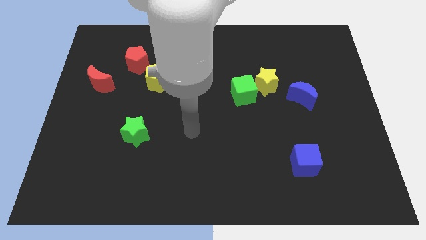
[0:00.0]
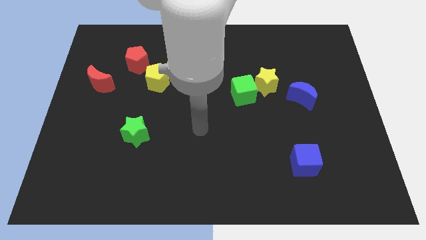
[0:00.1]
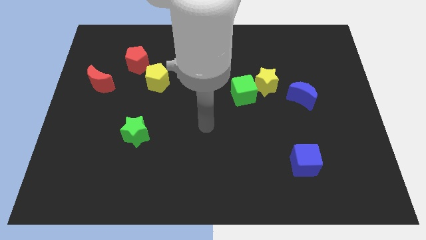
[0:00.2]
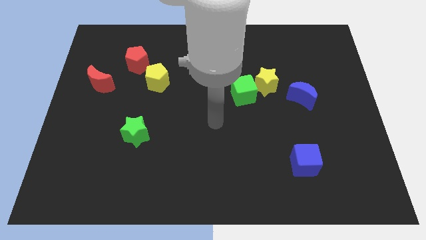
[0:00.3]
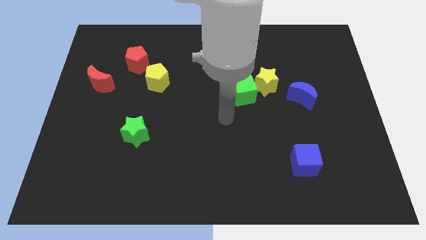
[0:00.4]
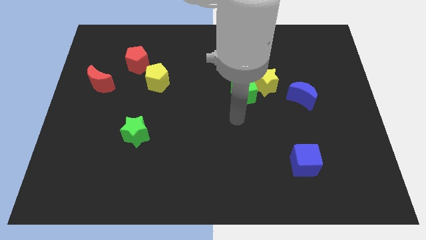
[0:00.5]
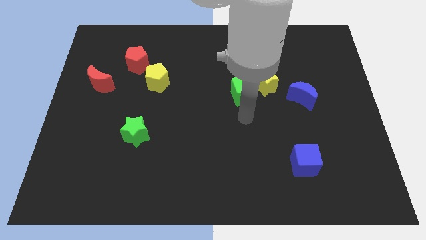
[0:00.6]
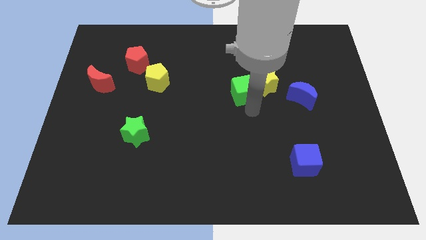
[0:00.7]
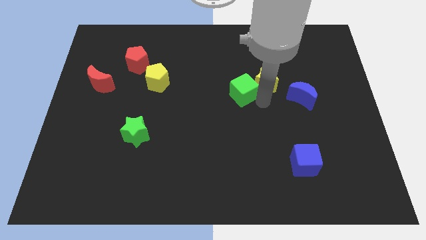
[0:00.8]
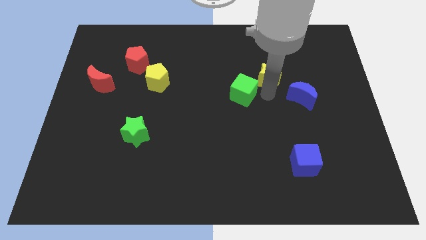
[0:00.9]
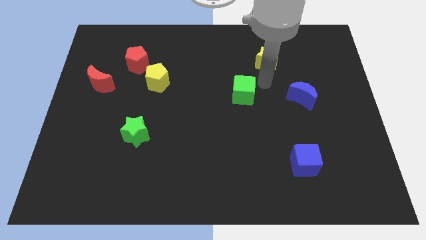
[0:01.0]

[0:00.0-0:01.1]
separate the green cube from the yellow star

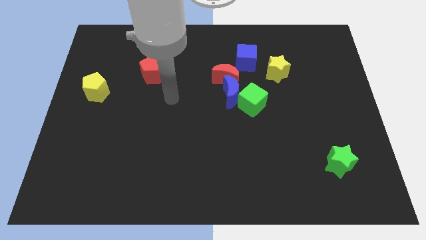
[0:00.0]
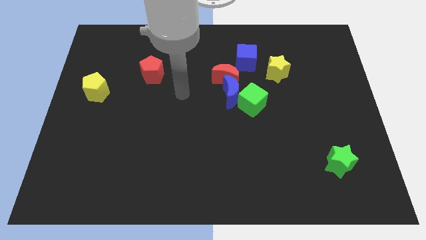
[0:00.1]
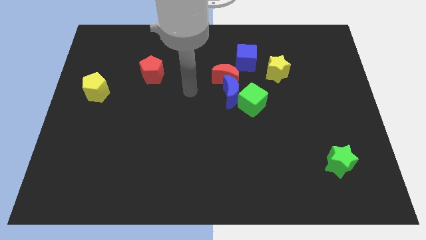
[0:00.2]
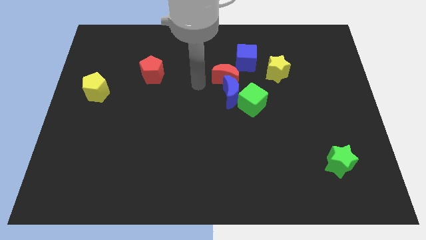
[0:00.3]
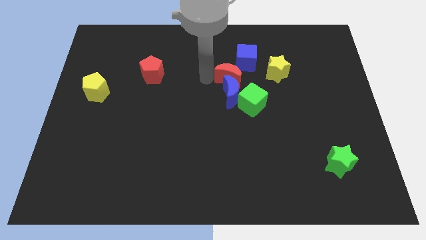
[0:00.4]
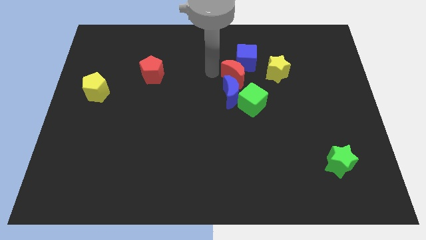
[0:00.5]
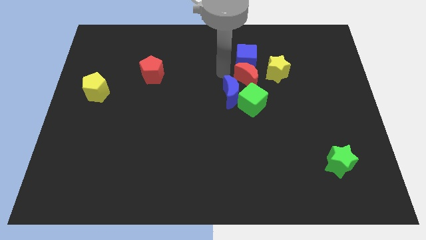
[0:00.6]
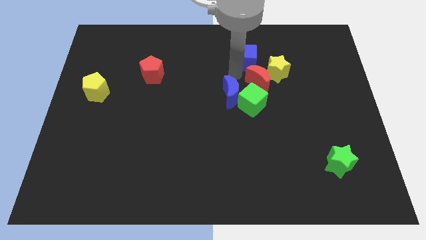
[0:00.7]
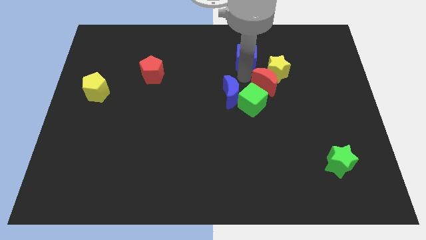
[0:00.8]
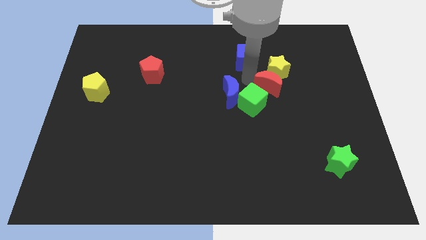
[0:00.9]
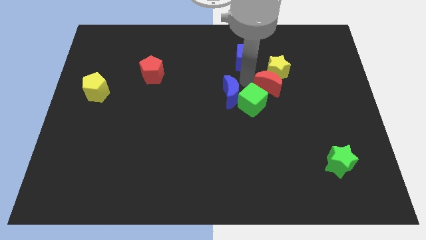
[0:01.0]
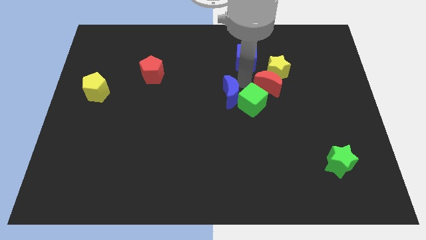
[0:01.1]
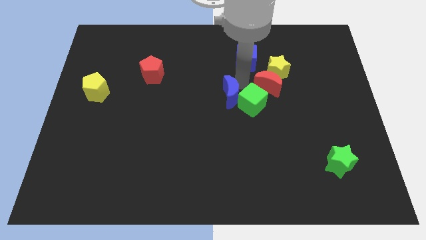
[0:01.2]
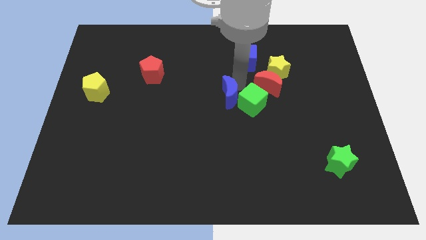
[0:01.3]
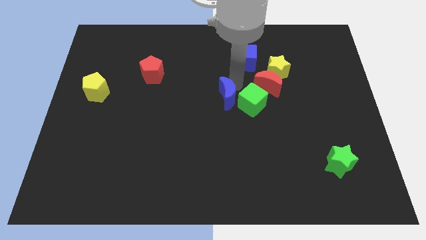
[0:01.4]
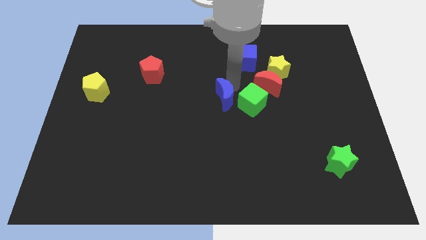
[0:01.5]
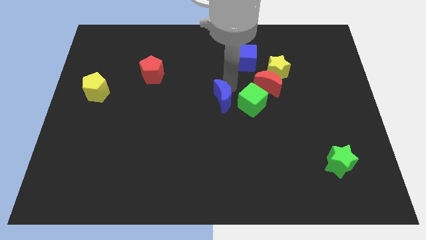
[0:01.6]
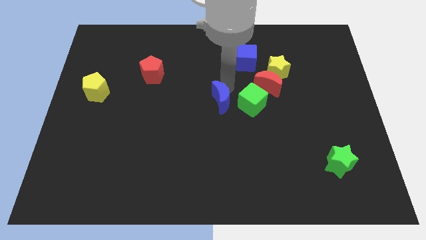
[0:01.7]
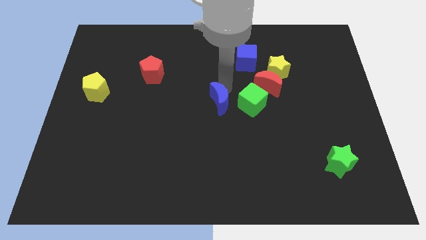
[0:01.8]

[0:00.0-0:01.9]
separate the blue moon from the green cube and red moon

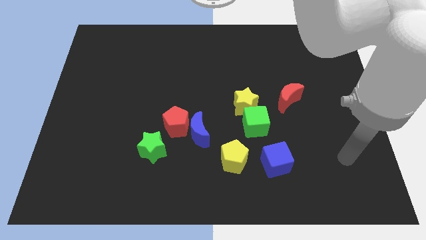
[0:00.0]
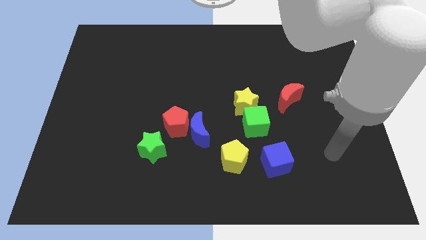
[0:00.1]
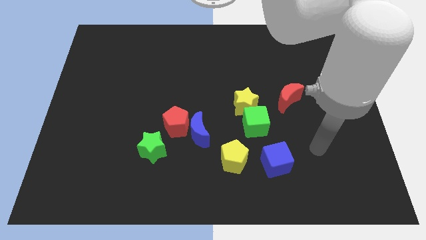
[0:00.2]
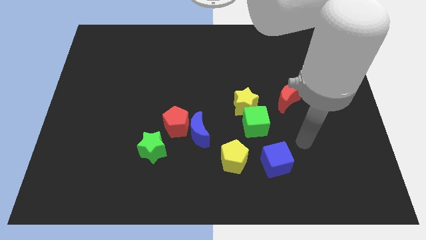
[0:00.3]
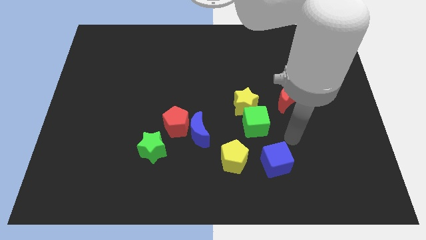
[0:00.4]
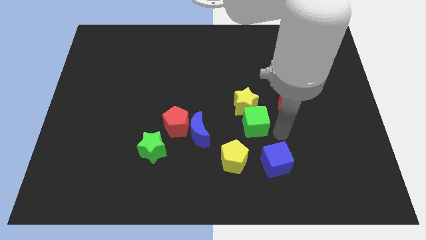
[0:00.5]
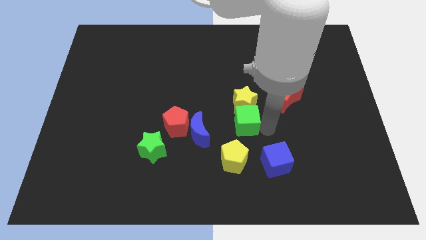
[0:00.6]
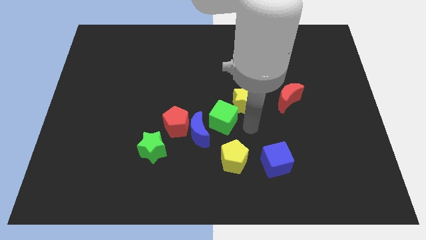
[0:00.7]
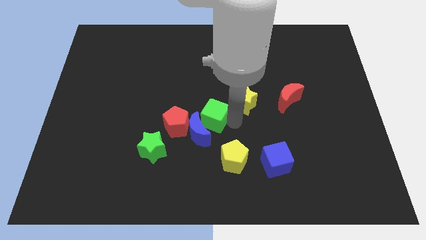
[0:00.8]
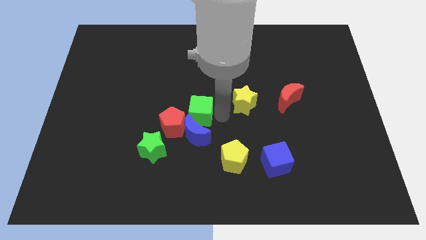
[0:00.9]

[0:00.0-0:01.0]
pull the yellow star apart from the green cube

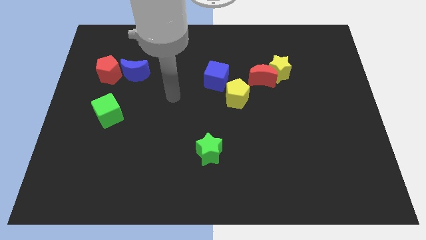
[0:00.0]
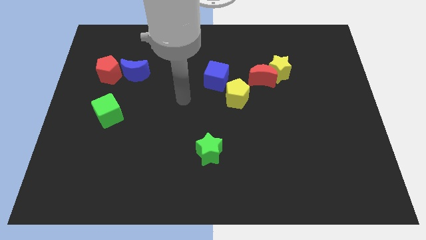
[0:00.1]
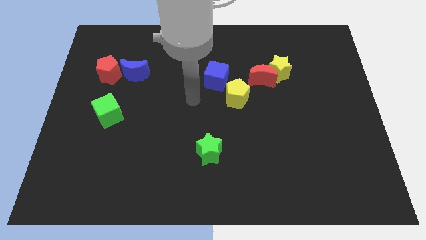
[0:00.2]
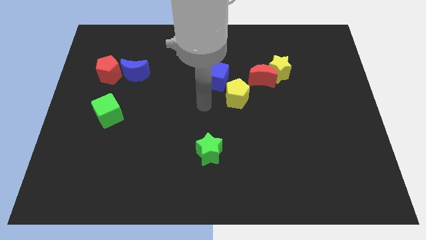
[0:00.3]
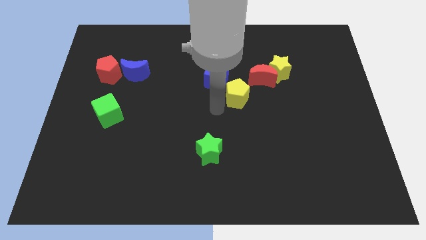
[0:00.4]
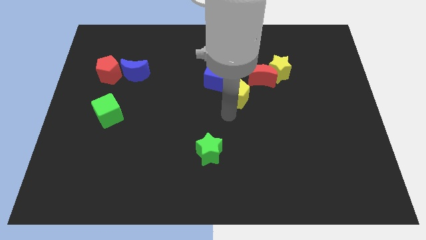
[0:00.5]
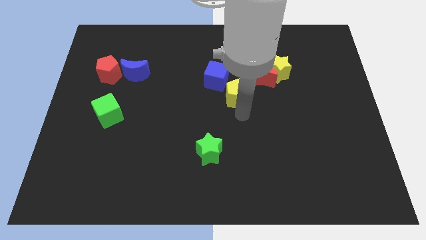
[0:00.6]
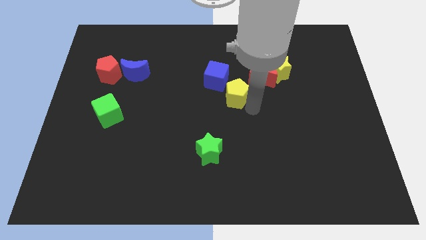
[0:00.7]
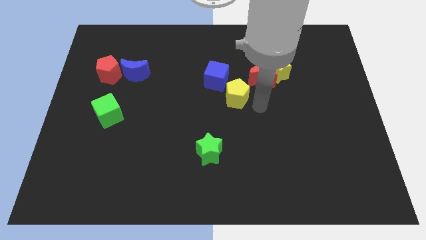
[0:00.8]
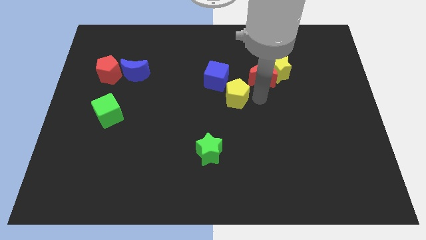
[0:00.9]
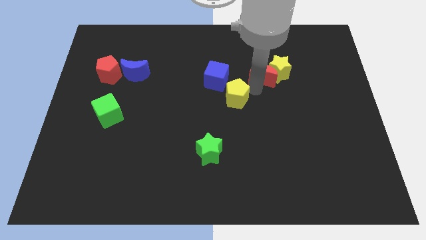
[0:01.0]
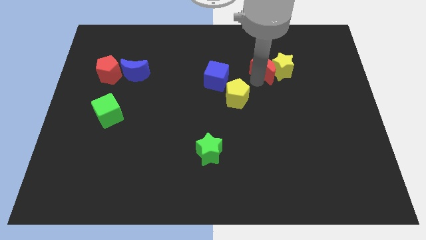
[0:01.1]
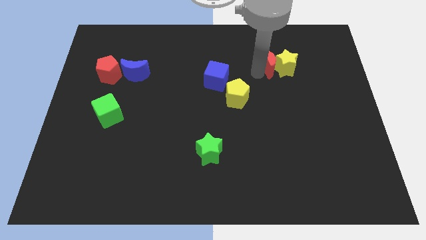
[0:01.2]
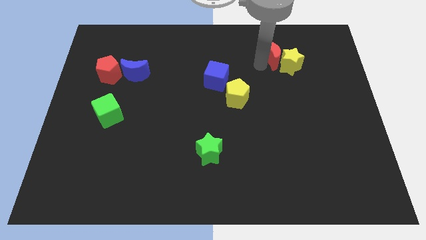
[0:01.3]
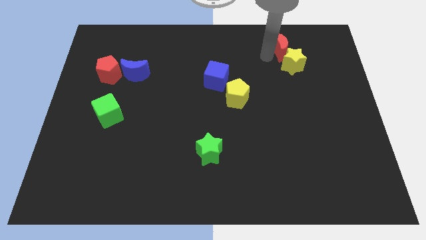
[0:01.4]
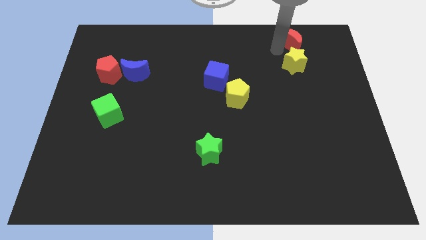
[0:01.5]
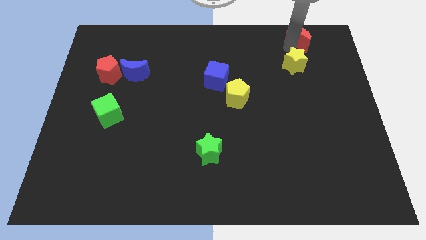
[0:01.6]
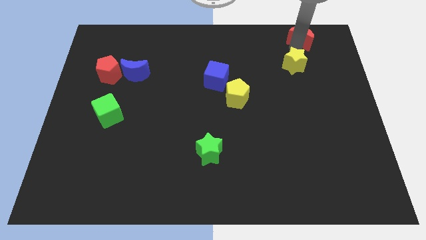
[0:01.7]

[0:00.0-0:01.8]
pull the yellow star apart from the red moon

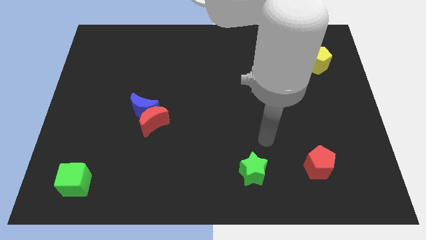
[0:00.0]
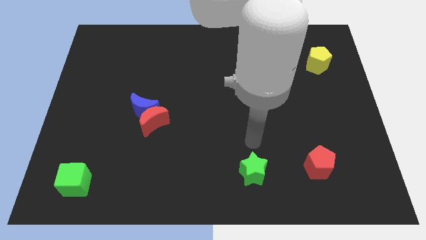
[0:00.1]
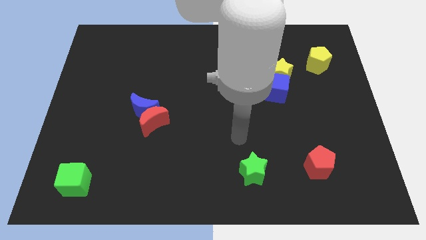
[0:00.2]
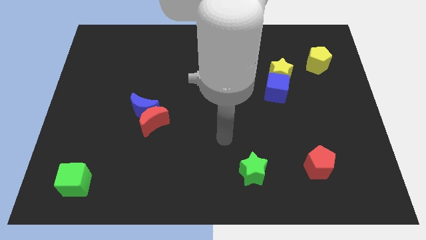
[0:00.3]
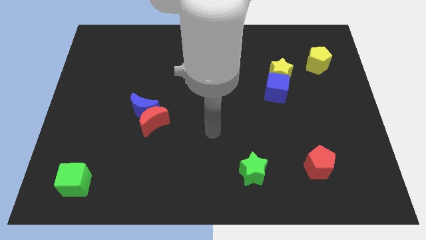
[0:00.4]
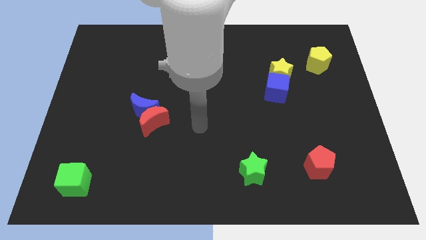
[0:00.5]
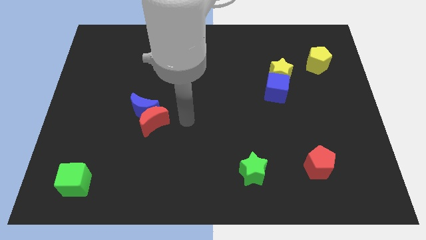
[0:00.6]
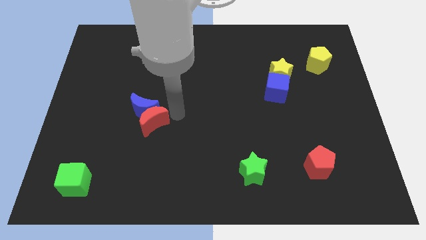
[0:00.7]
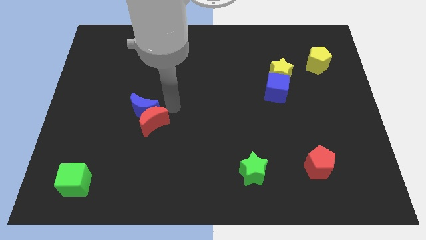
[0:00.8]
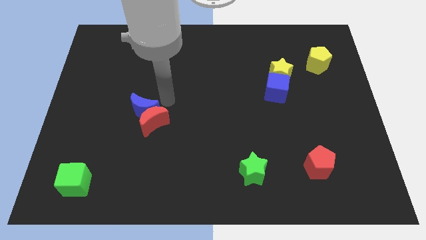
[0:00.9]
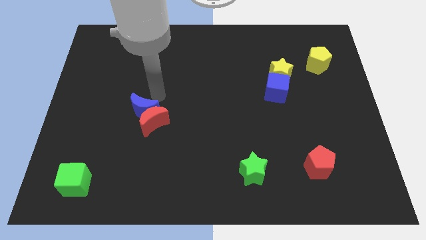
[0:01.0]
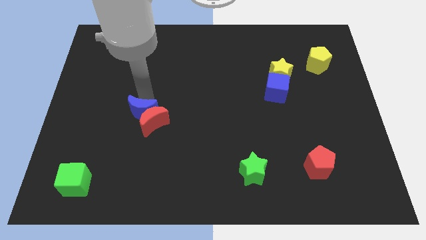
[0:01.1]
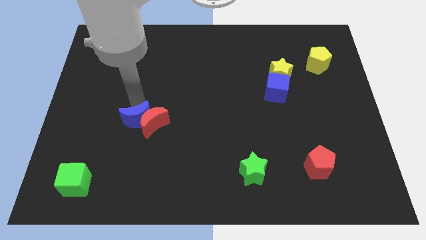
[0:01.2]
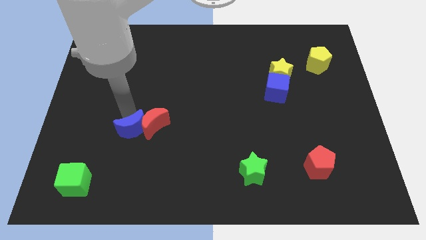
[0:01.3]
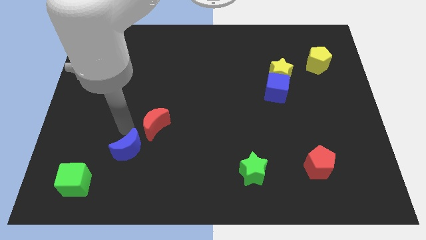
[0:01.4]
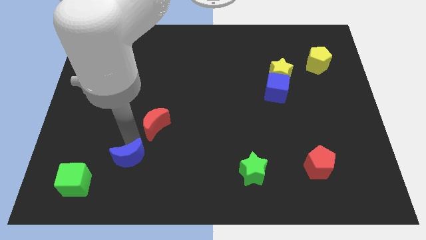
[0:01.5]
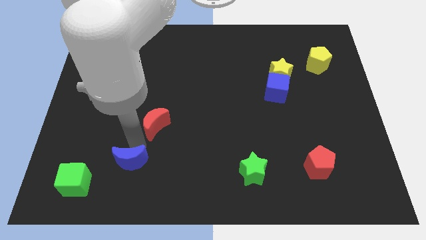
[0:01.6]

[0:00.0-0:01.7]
pull the red moon apart from the blue moon

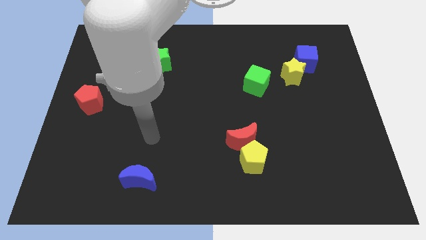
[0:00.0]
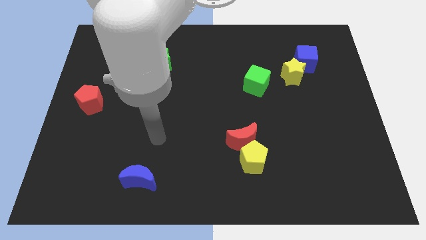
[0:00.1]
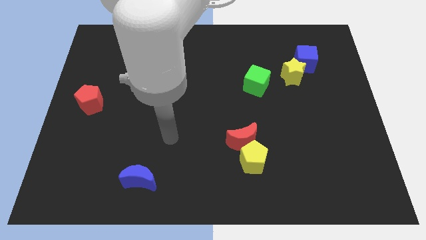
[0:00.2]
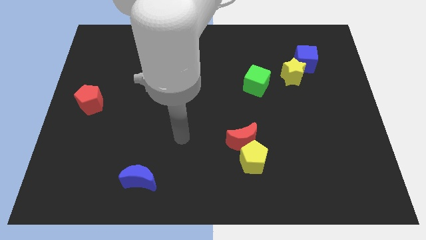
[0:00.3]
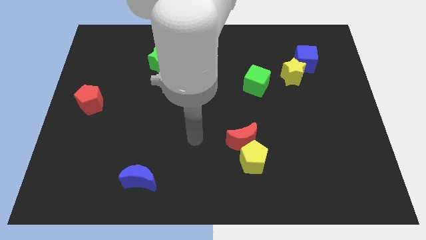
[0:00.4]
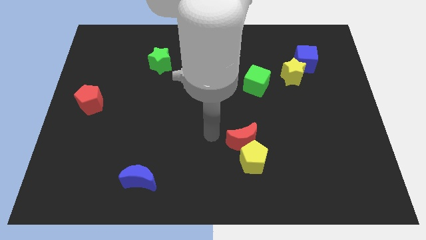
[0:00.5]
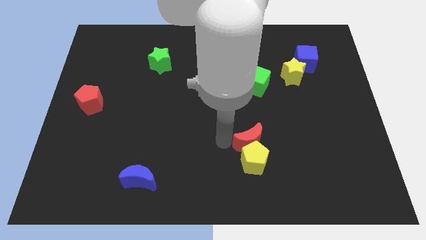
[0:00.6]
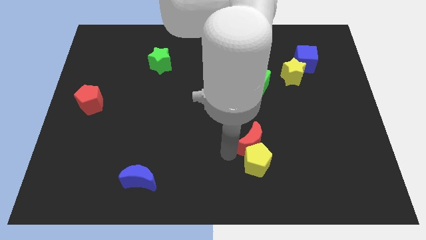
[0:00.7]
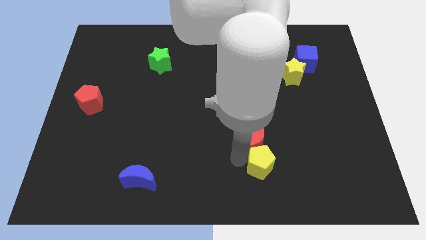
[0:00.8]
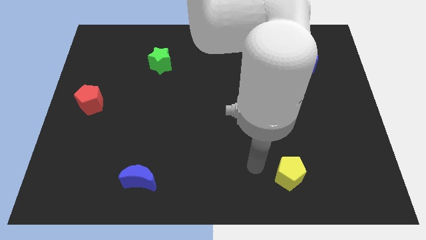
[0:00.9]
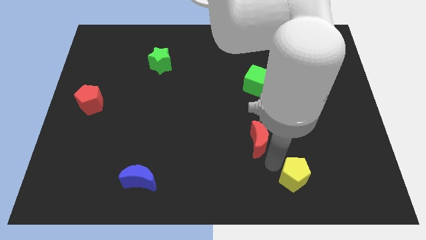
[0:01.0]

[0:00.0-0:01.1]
separate the red moon from the yellow pentagon

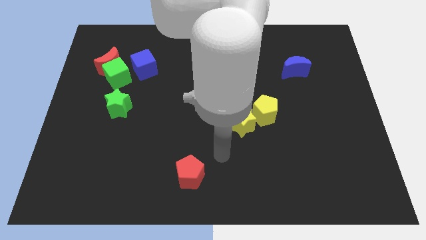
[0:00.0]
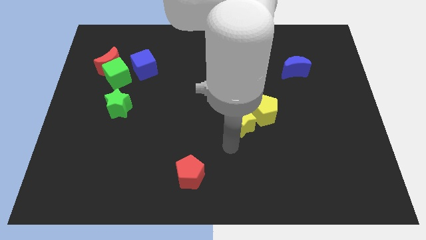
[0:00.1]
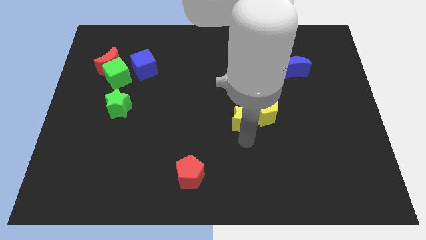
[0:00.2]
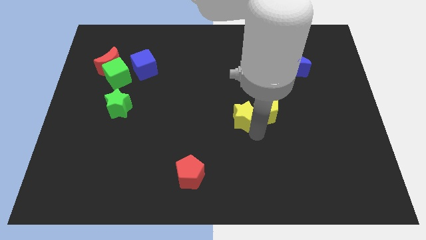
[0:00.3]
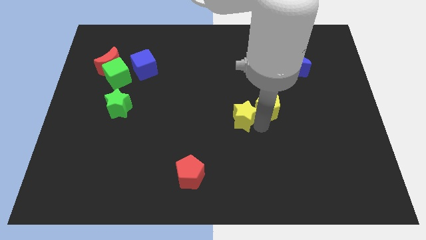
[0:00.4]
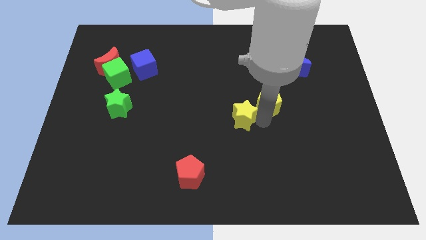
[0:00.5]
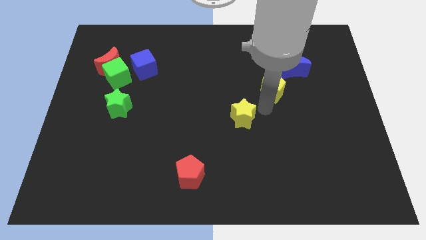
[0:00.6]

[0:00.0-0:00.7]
pull the yellow star apart from the yellow pentagon

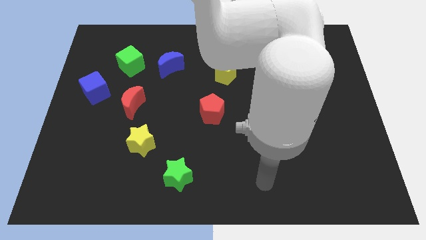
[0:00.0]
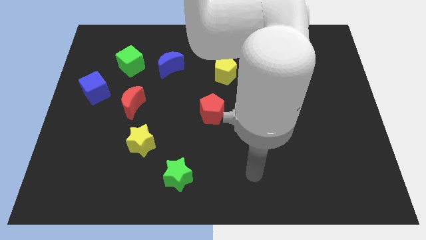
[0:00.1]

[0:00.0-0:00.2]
move the blue moon away from the green cube
